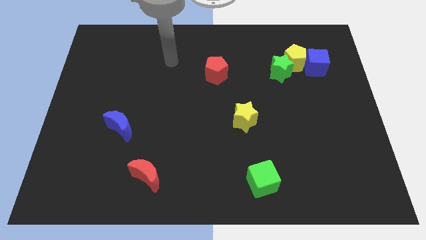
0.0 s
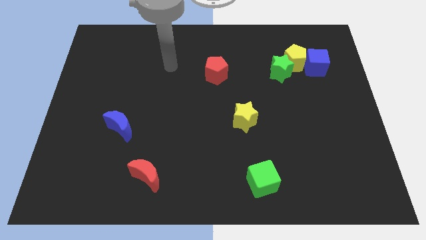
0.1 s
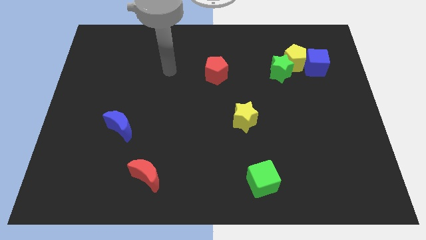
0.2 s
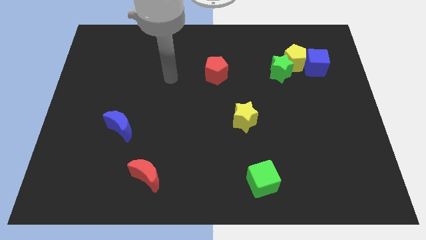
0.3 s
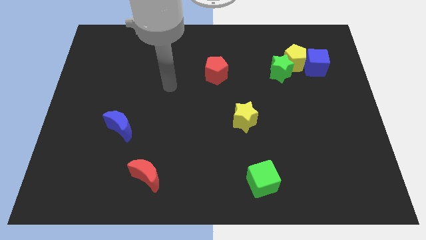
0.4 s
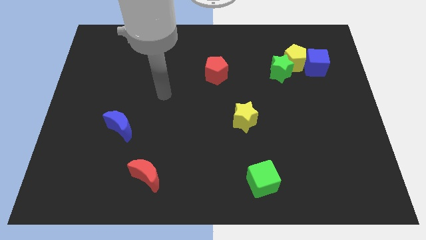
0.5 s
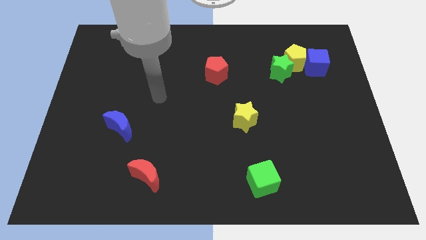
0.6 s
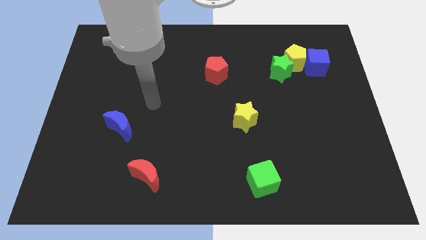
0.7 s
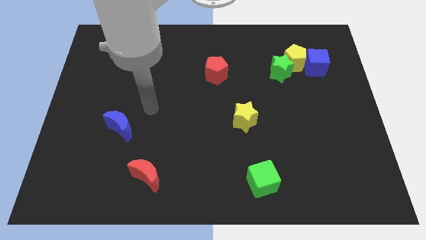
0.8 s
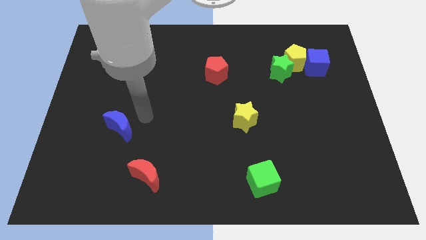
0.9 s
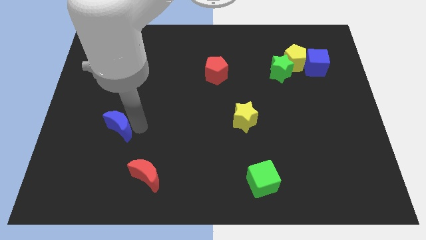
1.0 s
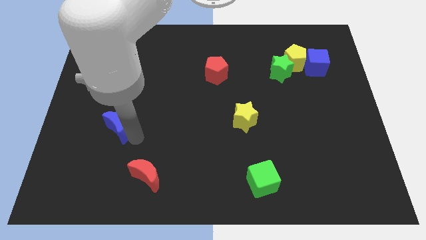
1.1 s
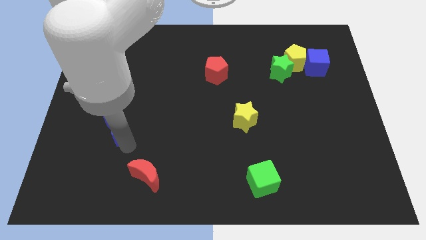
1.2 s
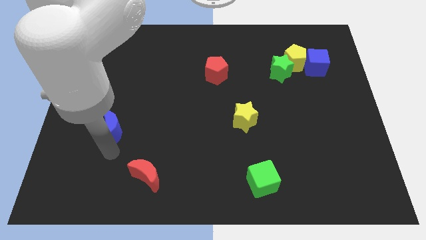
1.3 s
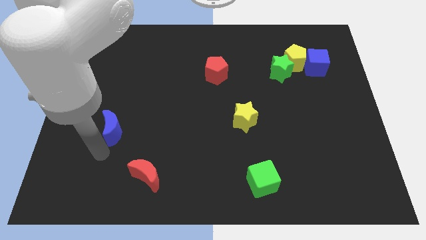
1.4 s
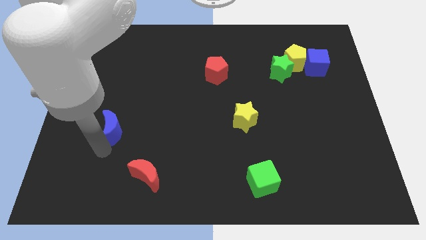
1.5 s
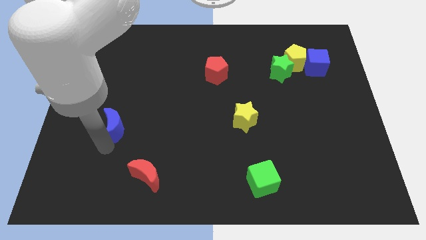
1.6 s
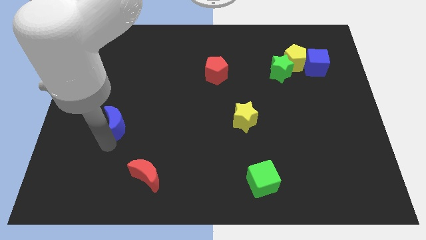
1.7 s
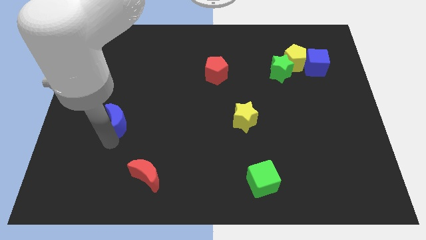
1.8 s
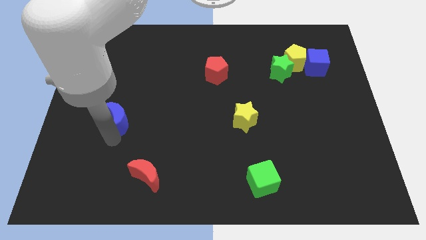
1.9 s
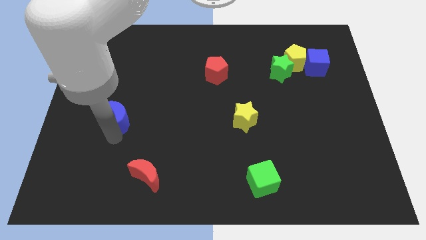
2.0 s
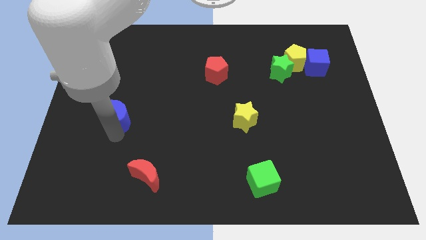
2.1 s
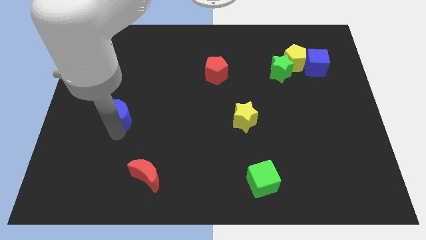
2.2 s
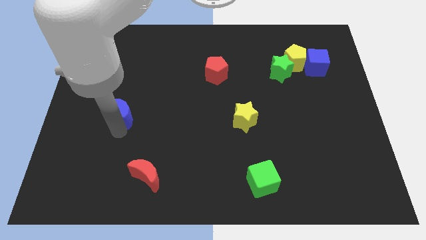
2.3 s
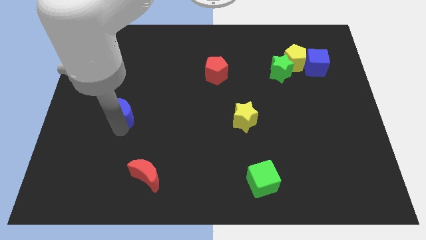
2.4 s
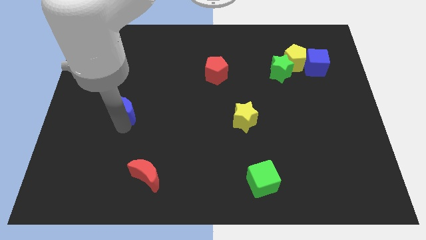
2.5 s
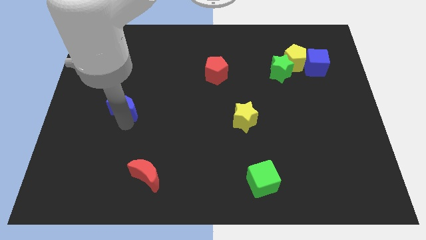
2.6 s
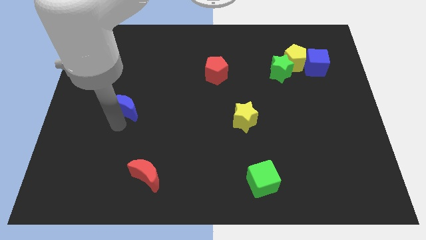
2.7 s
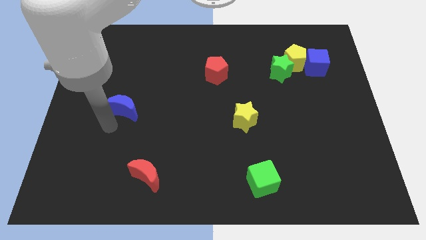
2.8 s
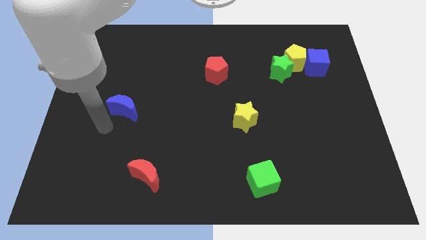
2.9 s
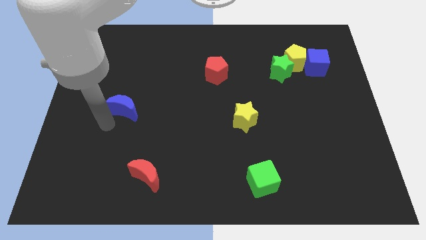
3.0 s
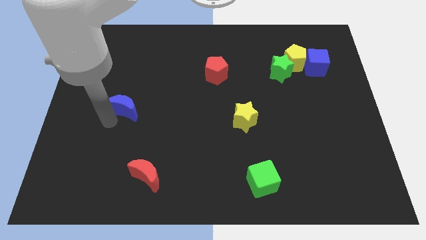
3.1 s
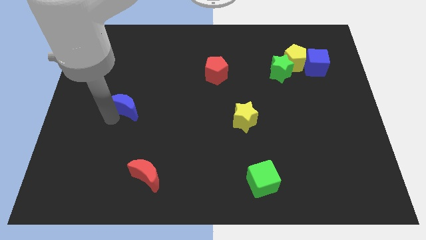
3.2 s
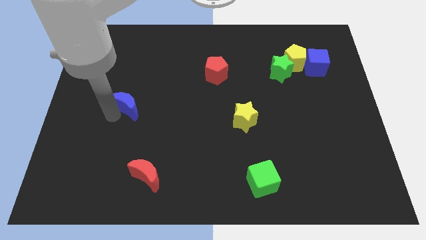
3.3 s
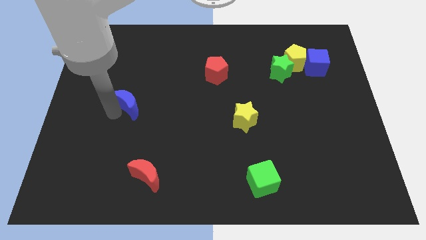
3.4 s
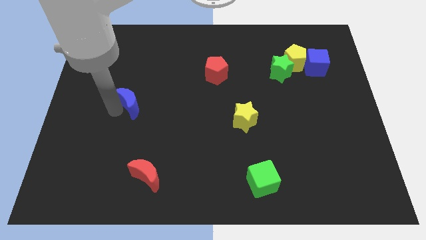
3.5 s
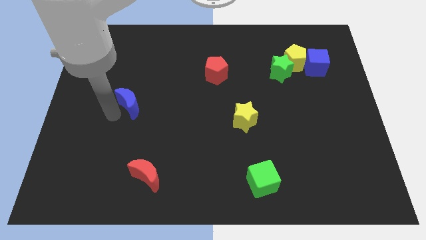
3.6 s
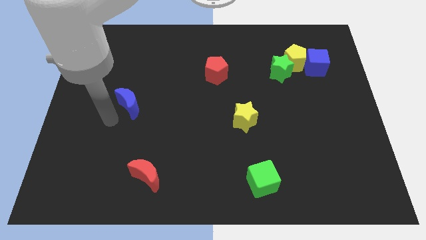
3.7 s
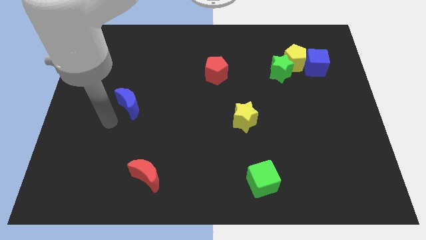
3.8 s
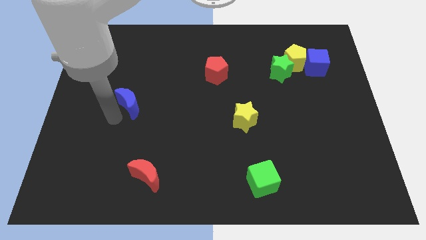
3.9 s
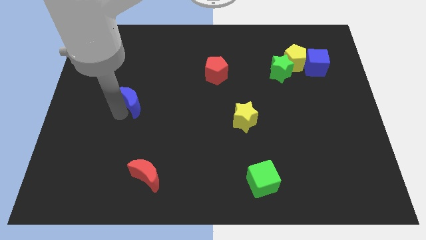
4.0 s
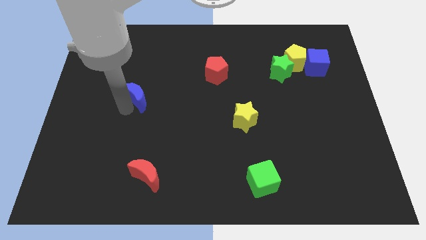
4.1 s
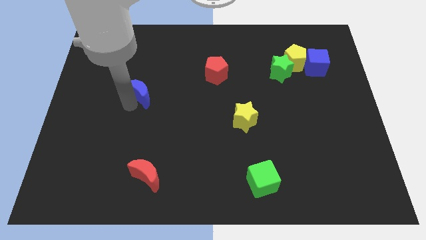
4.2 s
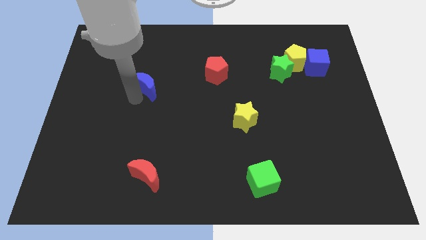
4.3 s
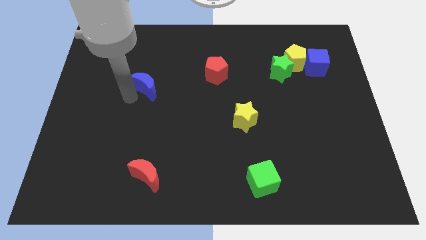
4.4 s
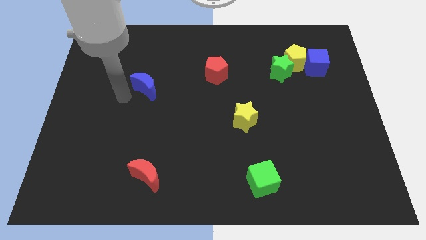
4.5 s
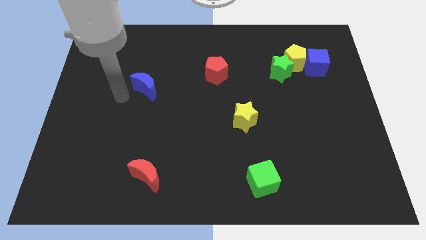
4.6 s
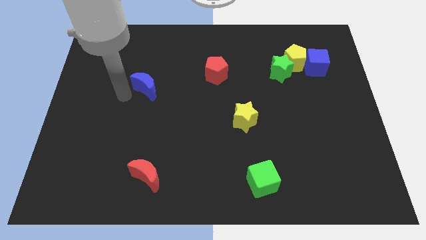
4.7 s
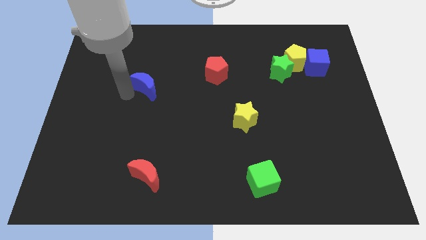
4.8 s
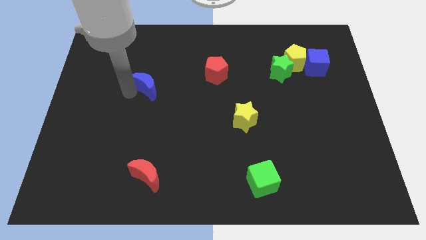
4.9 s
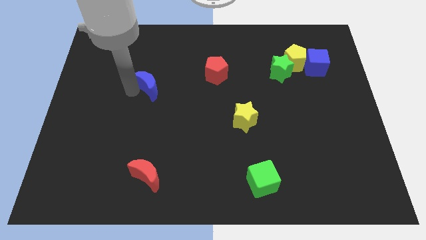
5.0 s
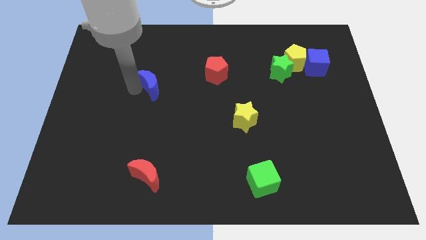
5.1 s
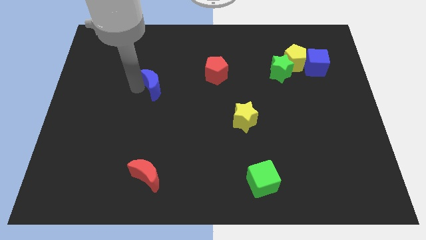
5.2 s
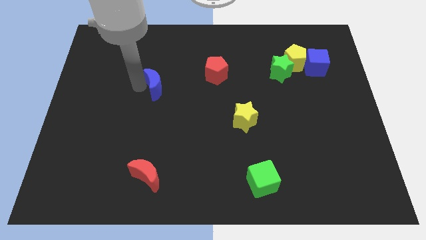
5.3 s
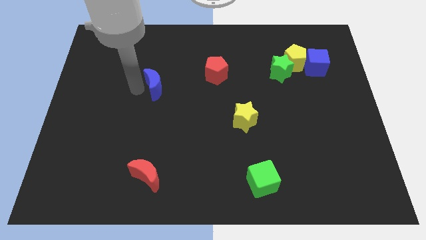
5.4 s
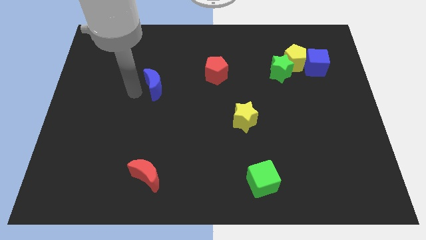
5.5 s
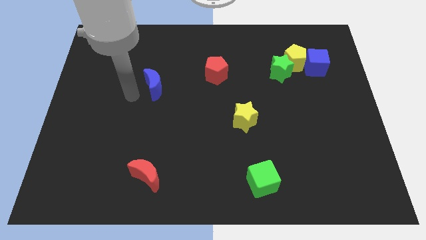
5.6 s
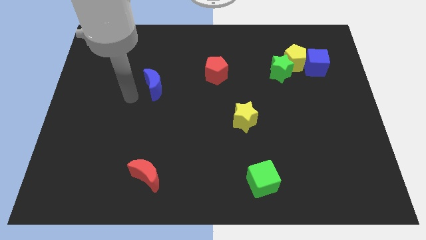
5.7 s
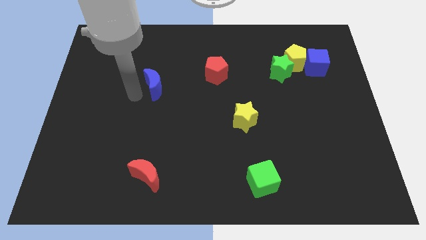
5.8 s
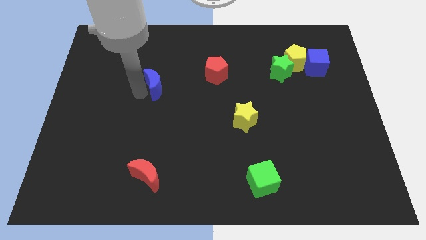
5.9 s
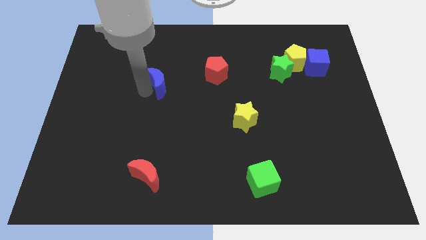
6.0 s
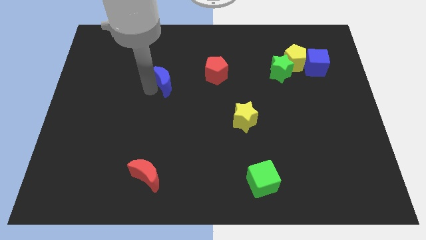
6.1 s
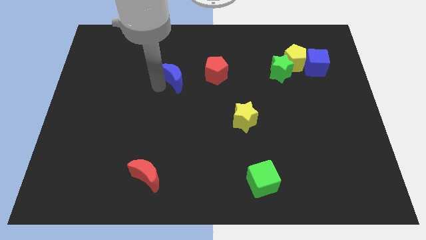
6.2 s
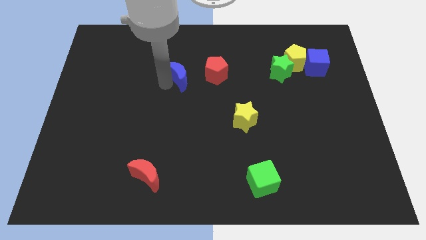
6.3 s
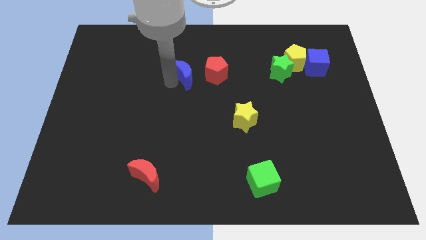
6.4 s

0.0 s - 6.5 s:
push the blue moon up and to the right

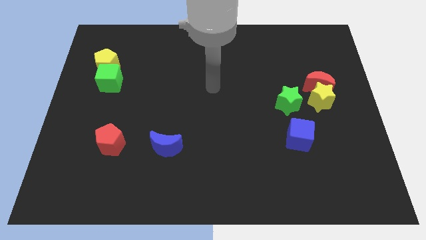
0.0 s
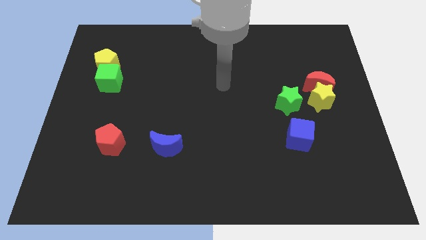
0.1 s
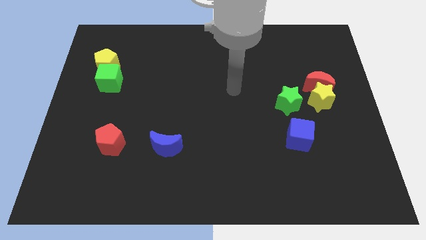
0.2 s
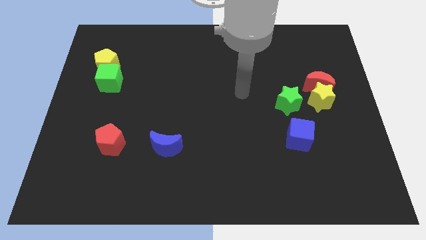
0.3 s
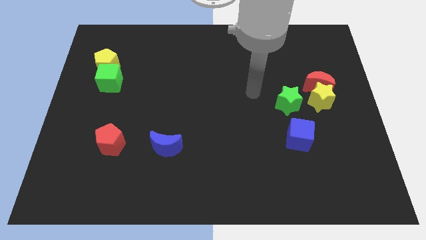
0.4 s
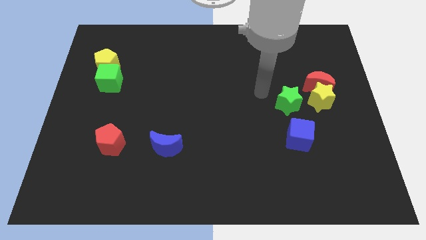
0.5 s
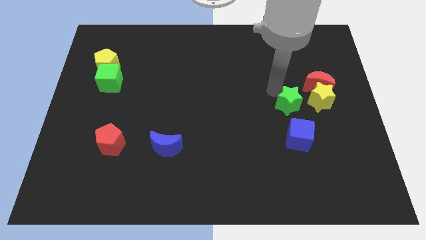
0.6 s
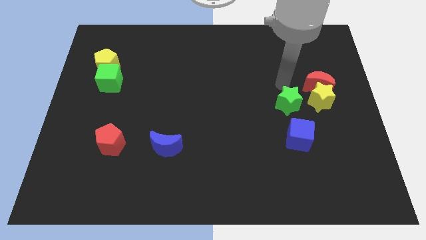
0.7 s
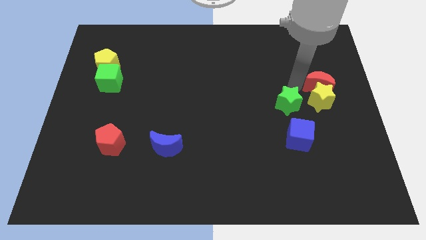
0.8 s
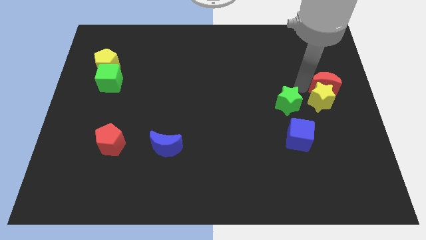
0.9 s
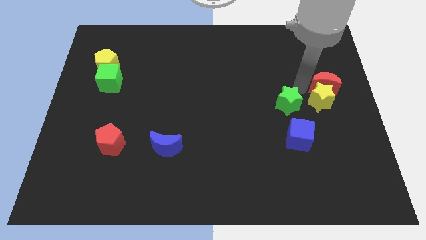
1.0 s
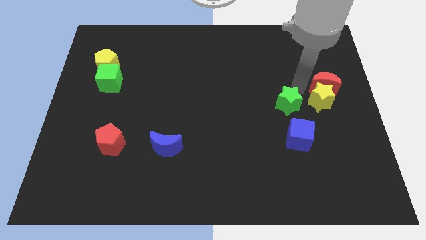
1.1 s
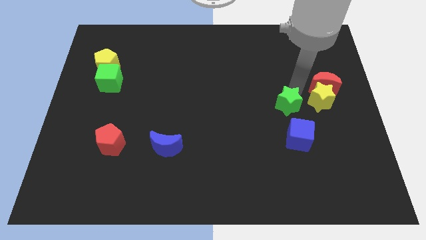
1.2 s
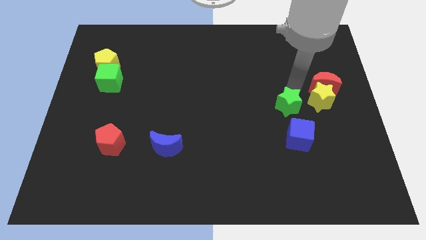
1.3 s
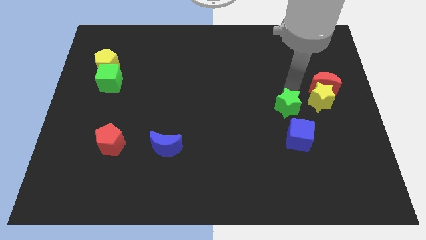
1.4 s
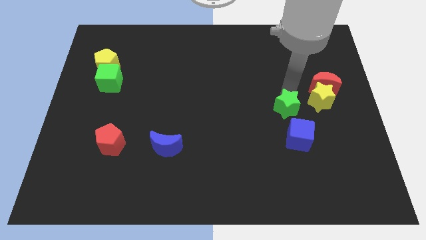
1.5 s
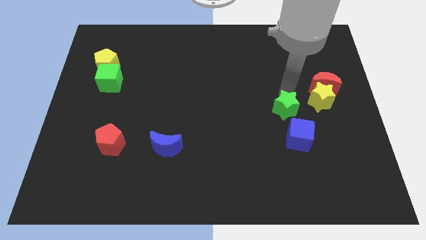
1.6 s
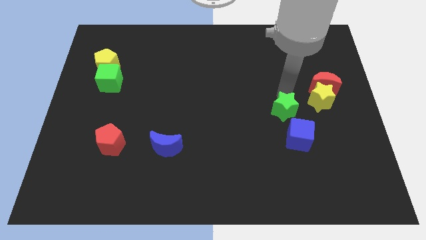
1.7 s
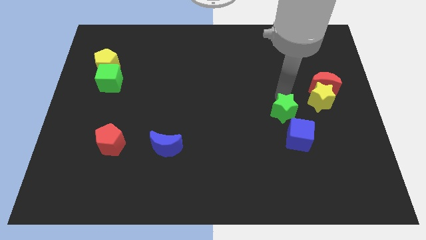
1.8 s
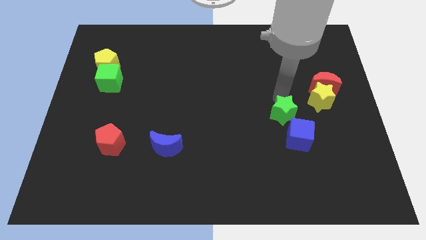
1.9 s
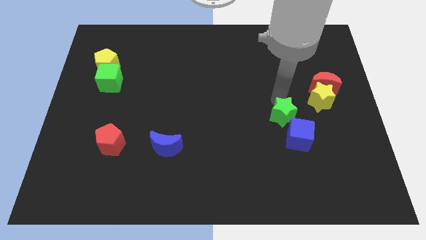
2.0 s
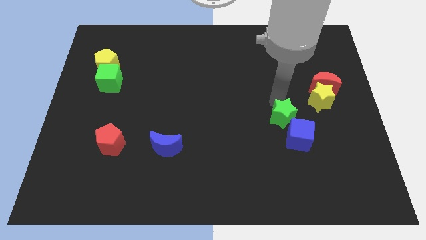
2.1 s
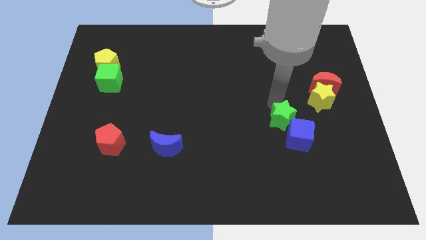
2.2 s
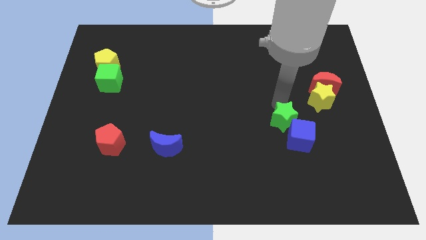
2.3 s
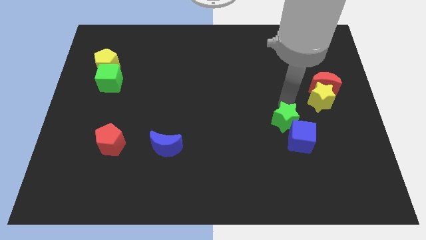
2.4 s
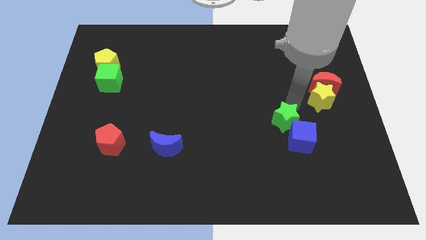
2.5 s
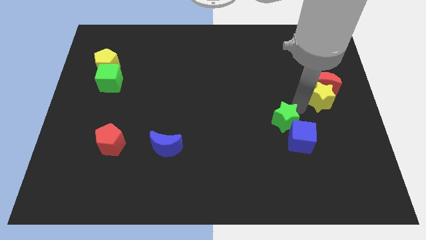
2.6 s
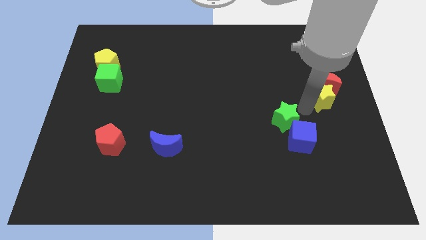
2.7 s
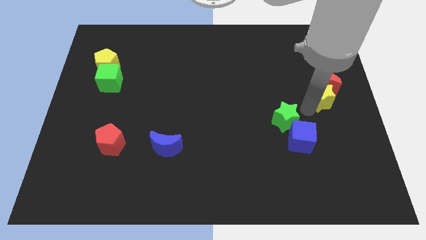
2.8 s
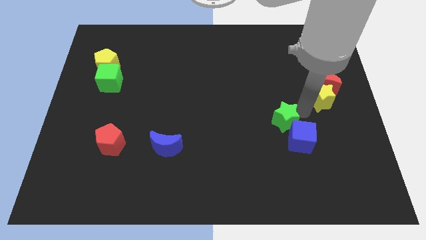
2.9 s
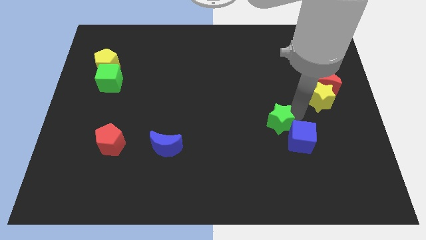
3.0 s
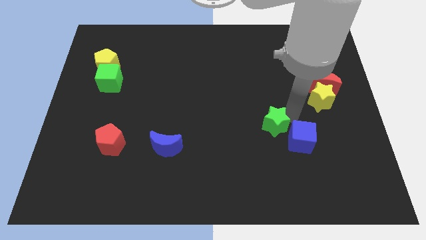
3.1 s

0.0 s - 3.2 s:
slide the green star diagonally down and left a little bit
